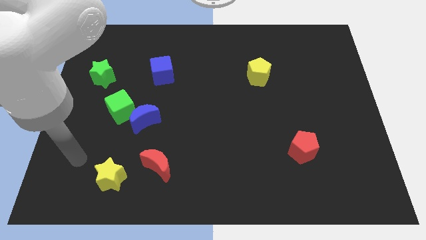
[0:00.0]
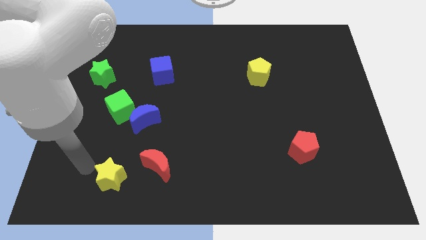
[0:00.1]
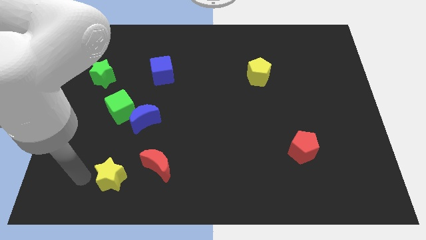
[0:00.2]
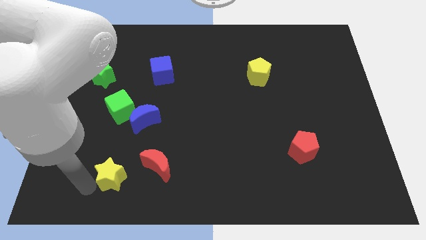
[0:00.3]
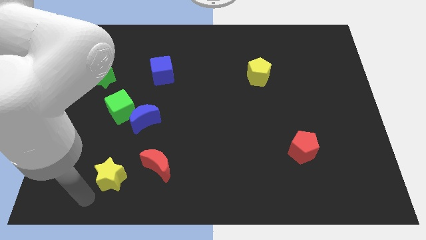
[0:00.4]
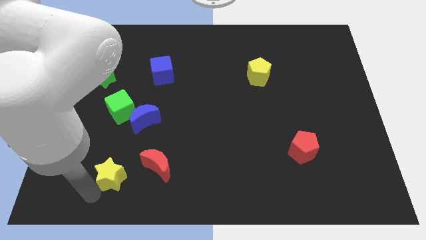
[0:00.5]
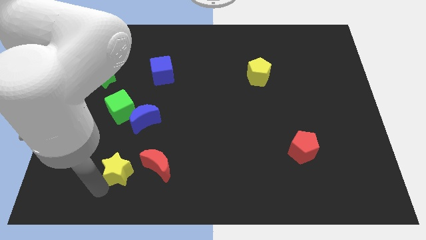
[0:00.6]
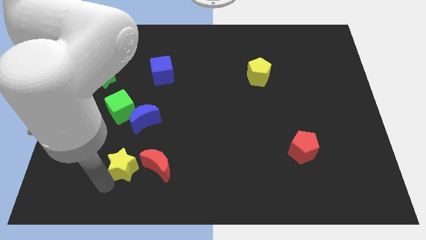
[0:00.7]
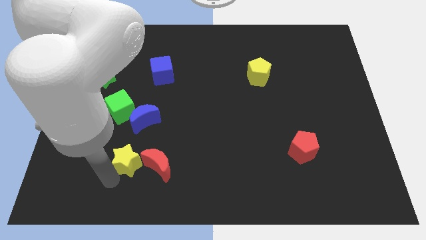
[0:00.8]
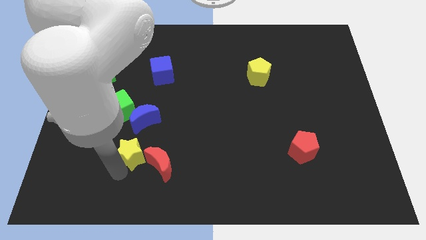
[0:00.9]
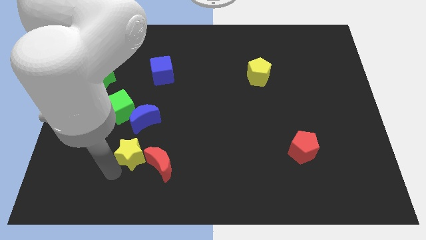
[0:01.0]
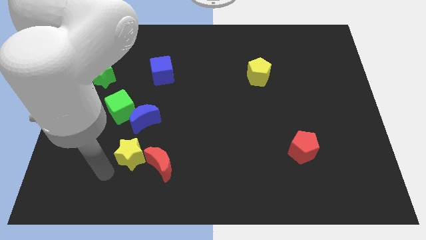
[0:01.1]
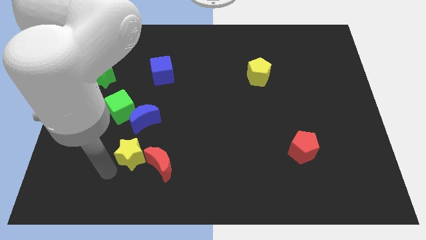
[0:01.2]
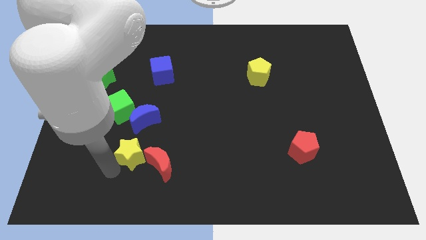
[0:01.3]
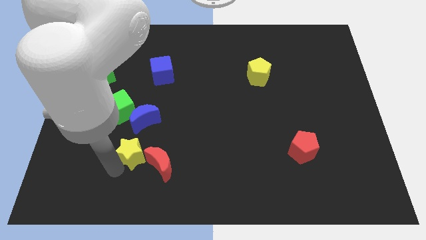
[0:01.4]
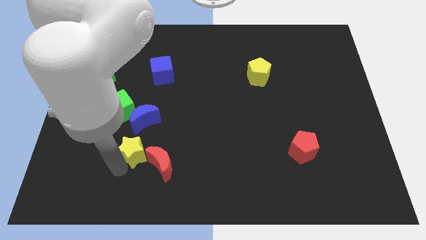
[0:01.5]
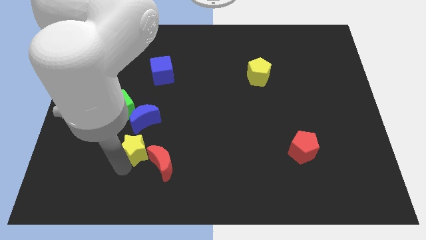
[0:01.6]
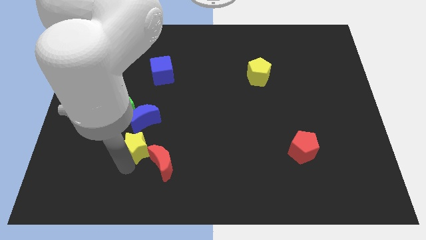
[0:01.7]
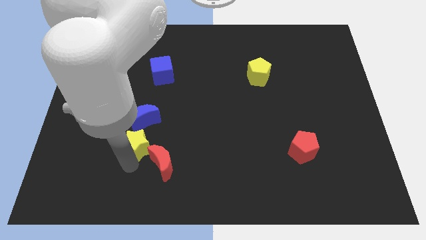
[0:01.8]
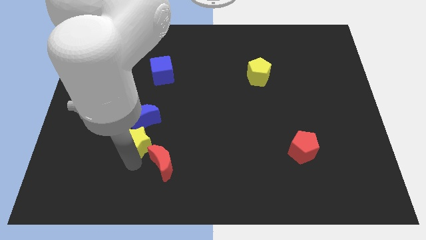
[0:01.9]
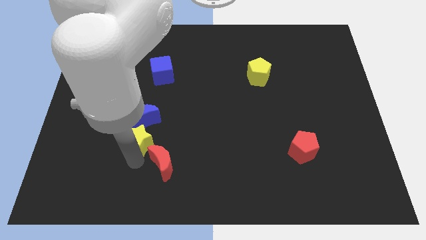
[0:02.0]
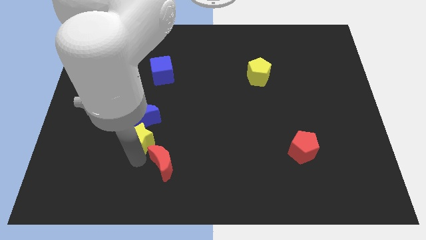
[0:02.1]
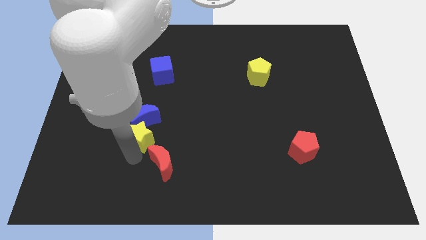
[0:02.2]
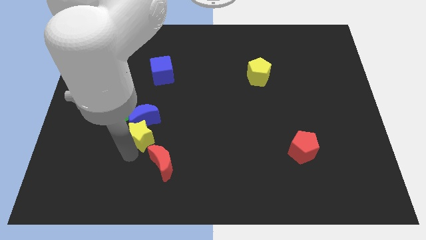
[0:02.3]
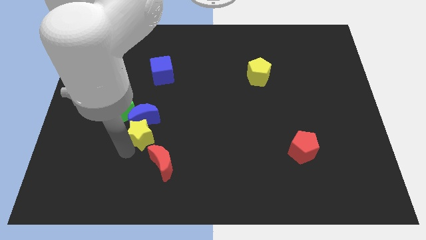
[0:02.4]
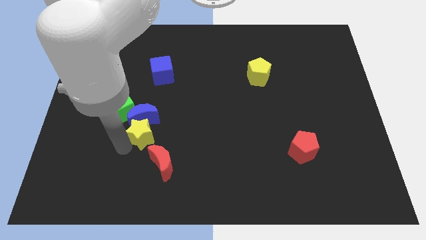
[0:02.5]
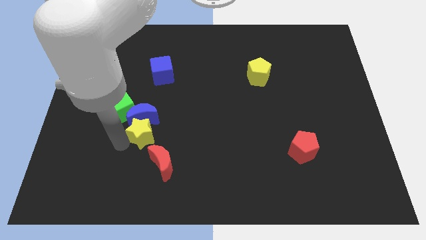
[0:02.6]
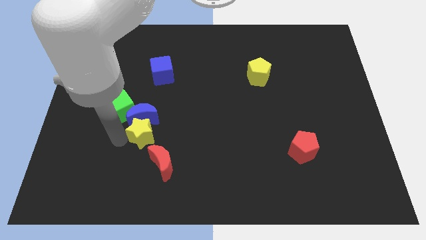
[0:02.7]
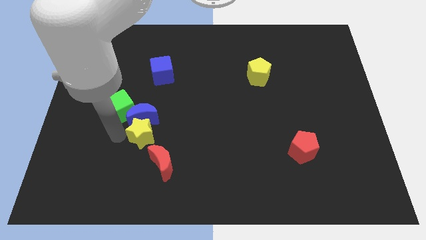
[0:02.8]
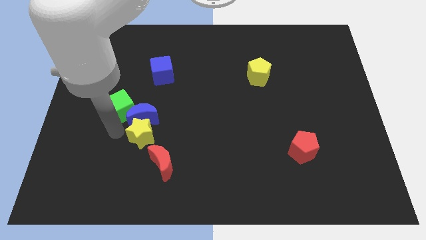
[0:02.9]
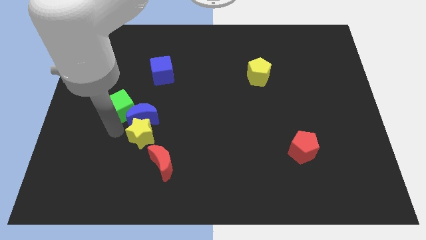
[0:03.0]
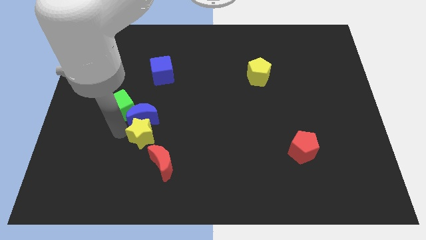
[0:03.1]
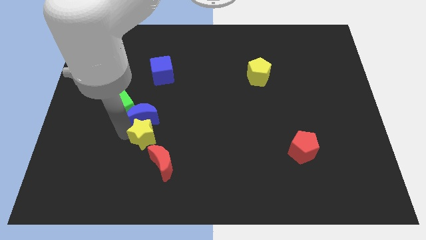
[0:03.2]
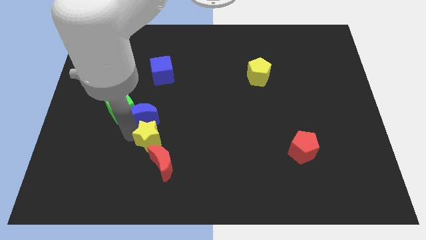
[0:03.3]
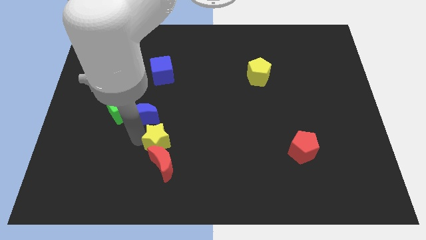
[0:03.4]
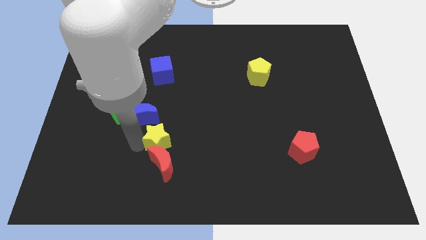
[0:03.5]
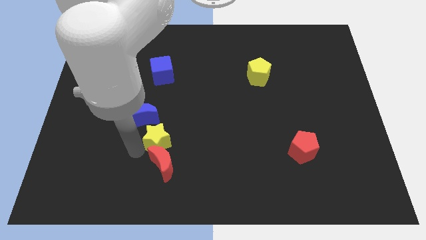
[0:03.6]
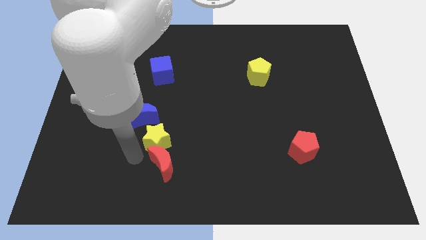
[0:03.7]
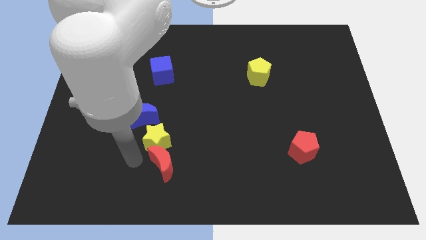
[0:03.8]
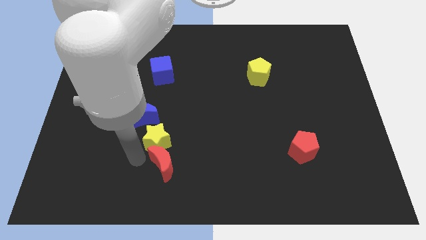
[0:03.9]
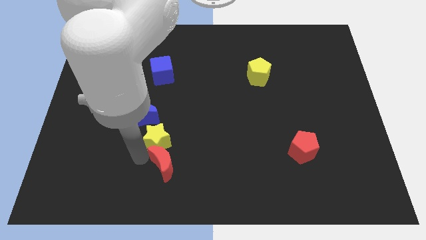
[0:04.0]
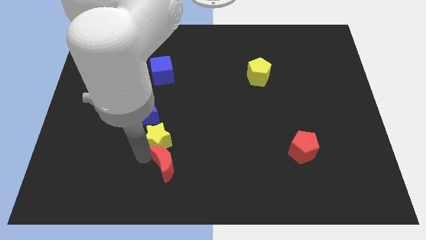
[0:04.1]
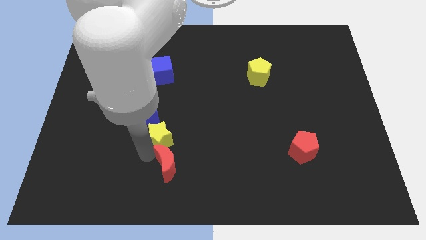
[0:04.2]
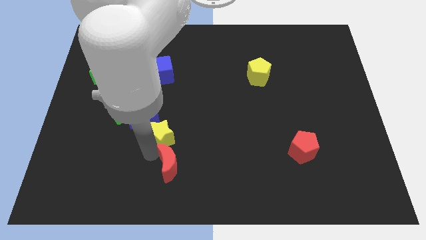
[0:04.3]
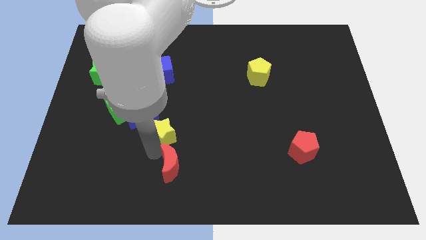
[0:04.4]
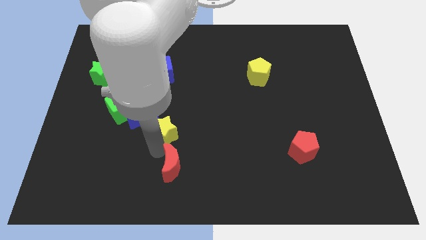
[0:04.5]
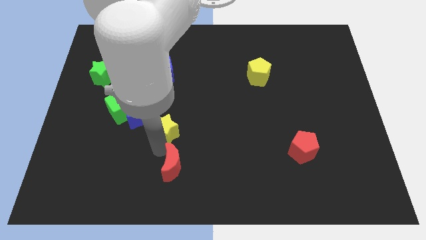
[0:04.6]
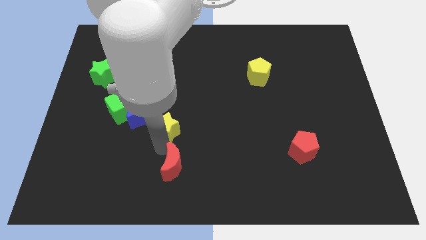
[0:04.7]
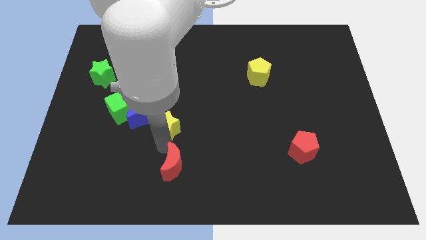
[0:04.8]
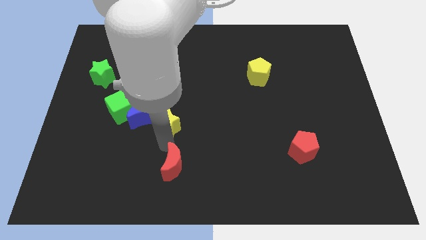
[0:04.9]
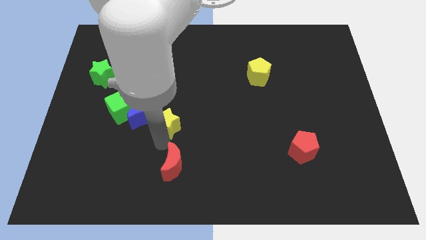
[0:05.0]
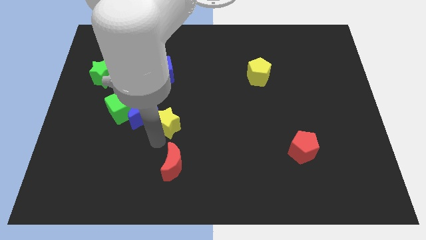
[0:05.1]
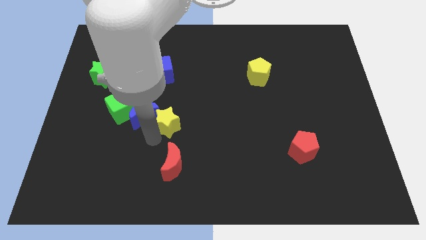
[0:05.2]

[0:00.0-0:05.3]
put the yellow star to the middle

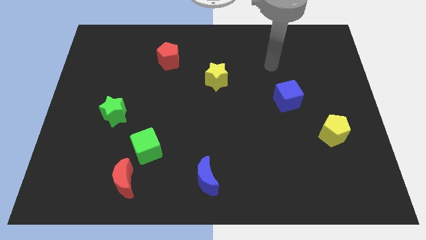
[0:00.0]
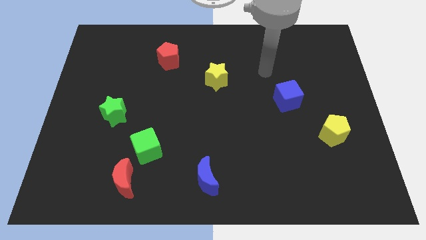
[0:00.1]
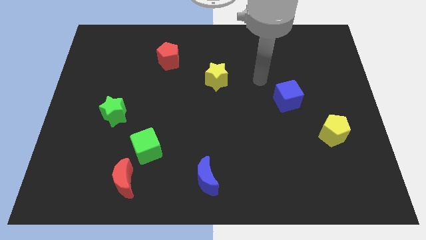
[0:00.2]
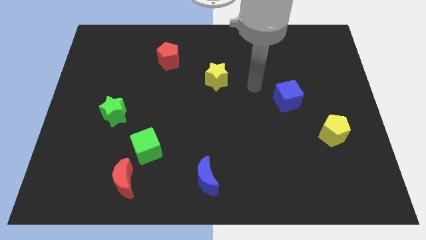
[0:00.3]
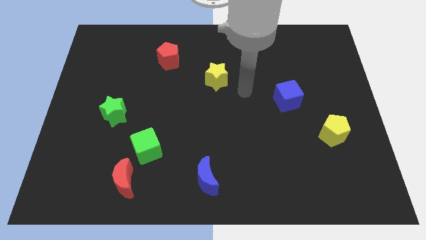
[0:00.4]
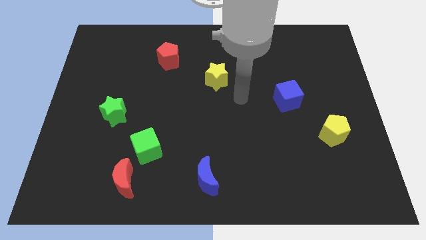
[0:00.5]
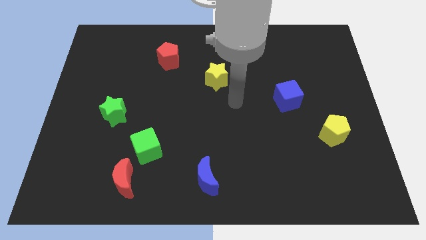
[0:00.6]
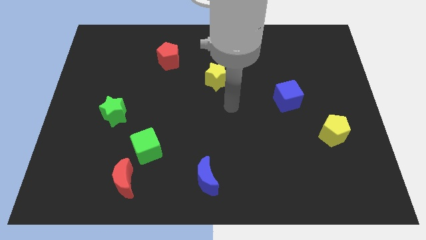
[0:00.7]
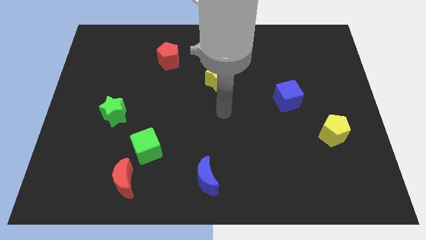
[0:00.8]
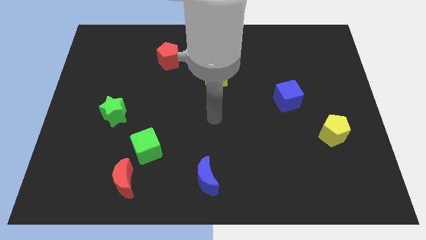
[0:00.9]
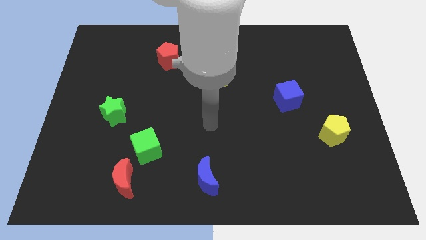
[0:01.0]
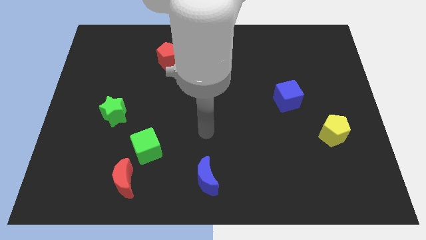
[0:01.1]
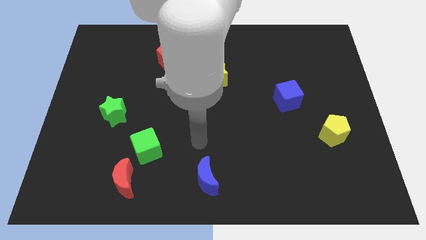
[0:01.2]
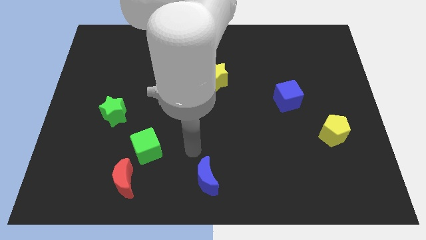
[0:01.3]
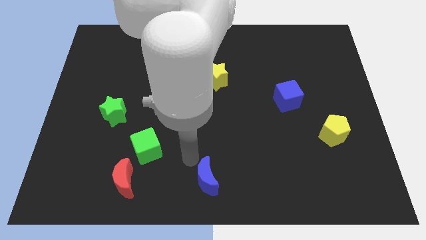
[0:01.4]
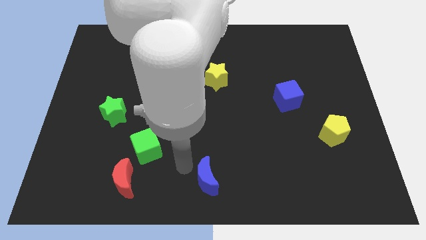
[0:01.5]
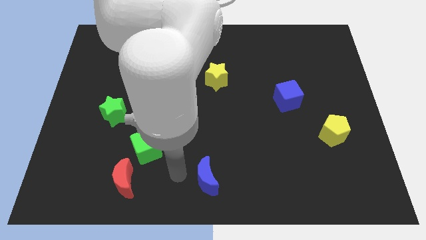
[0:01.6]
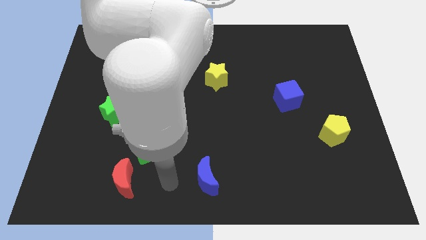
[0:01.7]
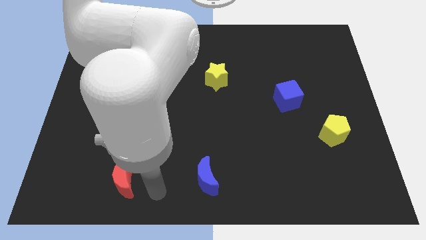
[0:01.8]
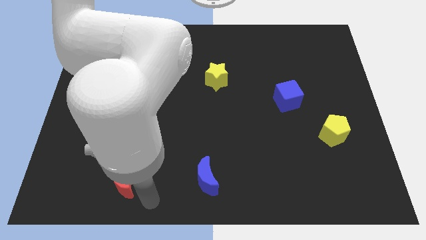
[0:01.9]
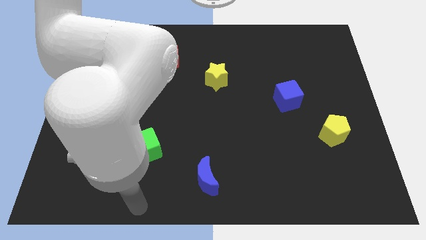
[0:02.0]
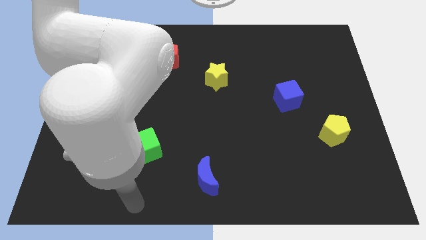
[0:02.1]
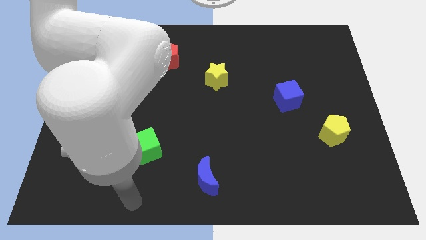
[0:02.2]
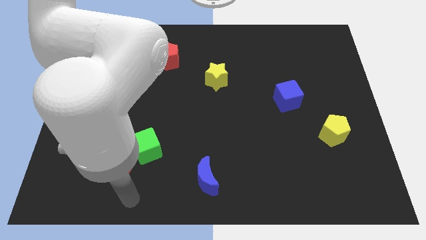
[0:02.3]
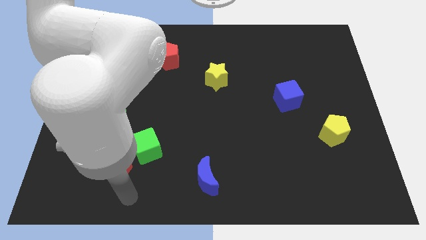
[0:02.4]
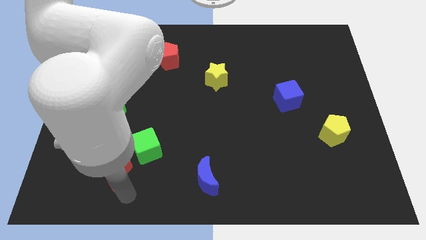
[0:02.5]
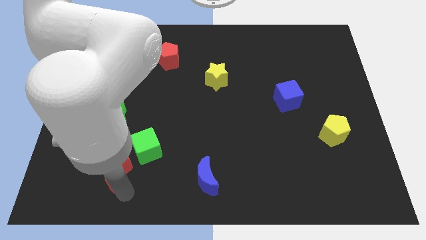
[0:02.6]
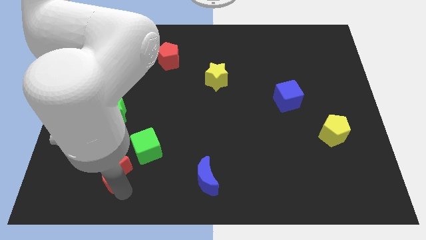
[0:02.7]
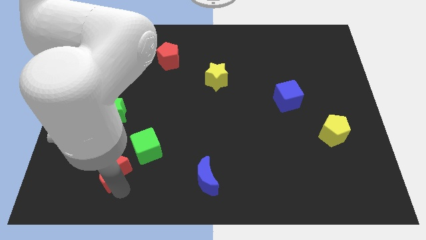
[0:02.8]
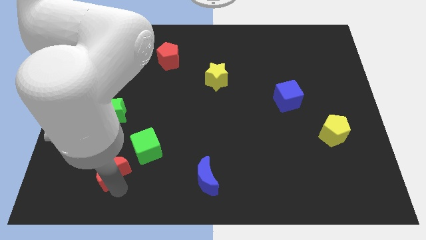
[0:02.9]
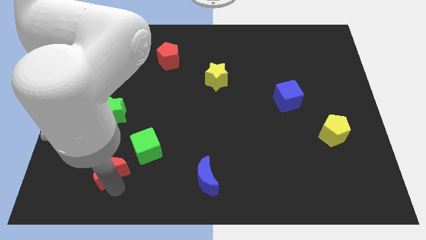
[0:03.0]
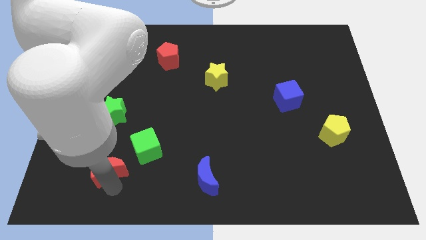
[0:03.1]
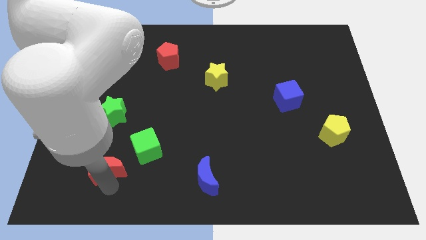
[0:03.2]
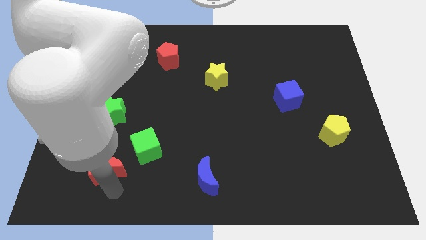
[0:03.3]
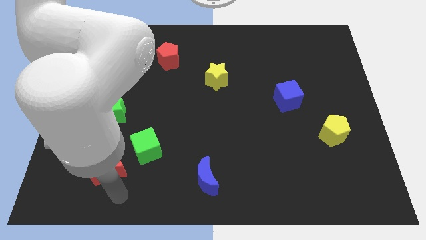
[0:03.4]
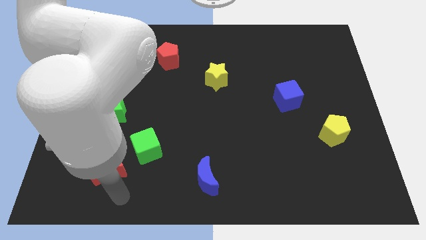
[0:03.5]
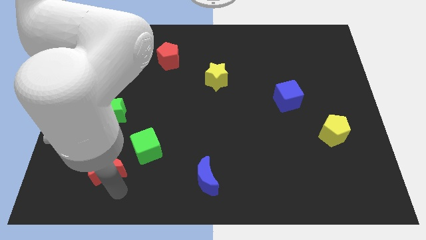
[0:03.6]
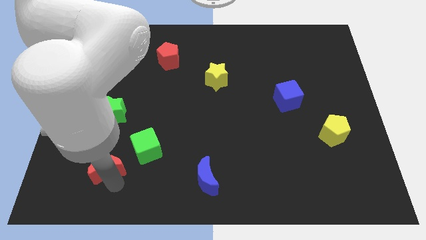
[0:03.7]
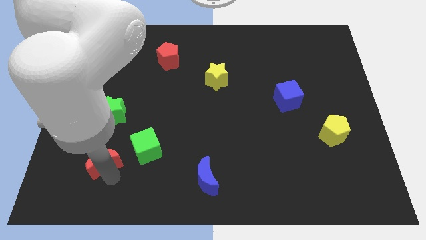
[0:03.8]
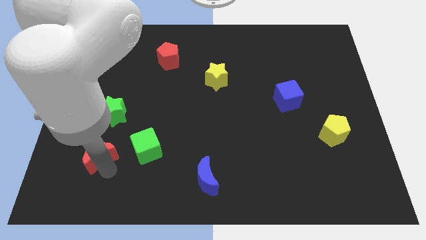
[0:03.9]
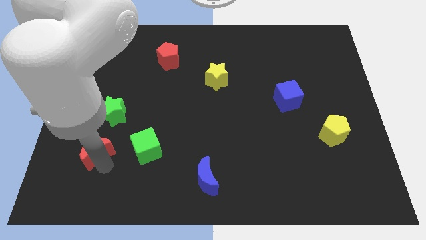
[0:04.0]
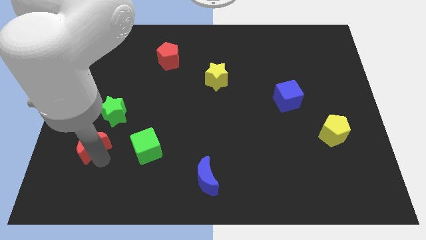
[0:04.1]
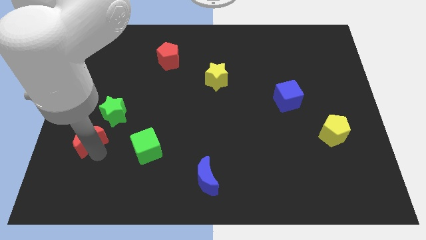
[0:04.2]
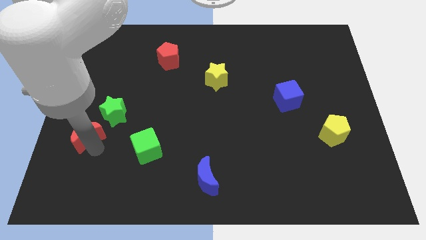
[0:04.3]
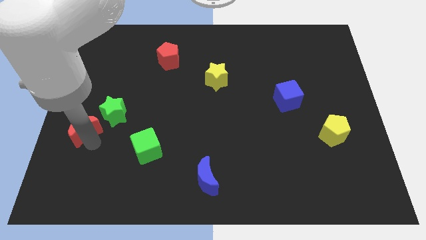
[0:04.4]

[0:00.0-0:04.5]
move the red moon to the left side
